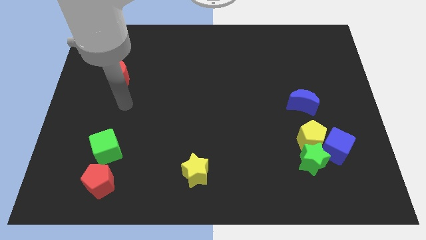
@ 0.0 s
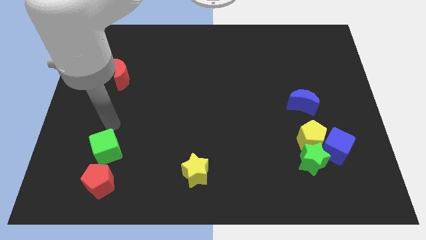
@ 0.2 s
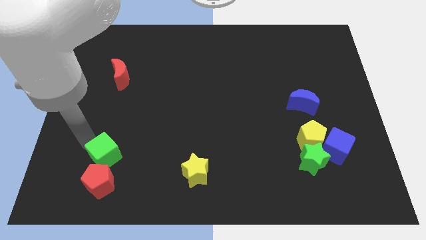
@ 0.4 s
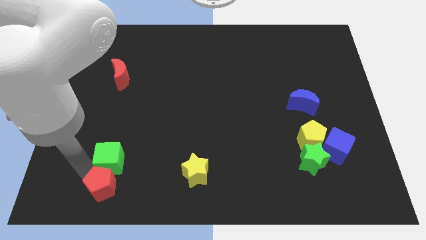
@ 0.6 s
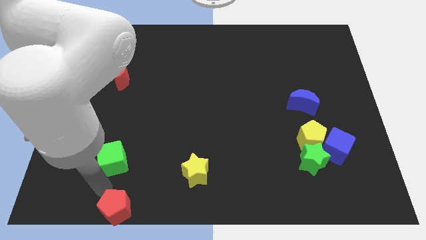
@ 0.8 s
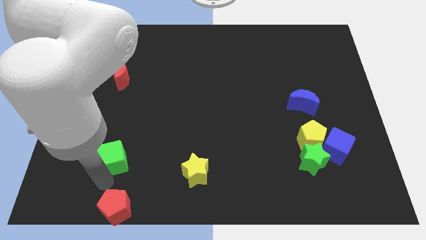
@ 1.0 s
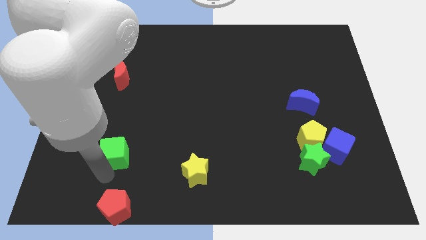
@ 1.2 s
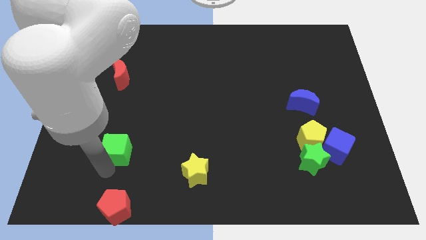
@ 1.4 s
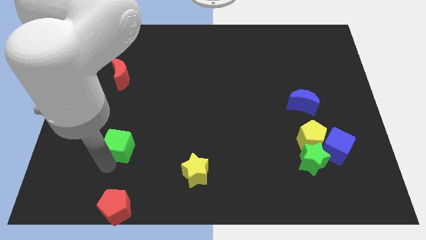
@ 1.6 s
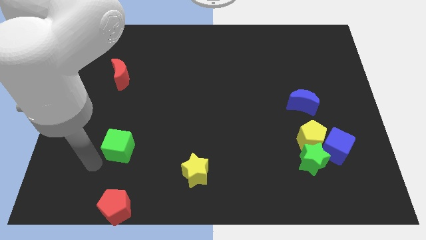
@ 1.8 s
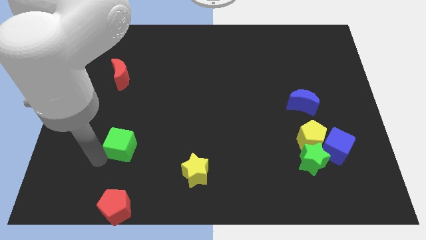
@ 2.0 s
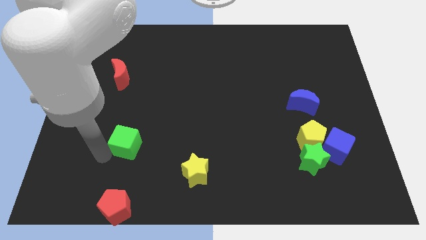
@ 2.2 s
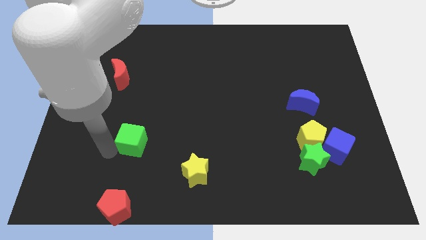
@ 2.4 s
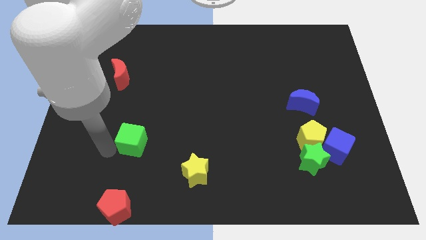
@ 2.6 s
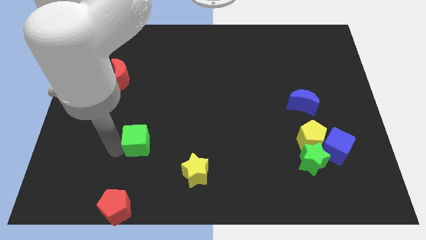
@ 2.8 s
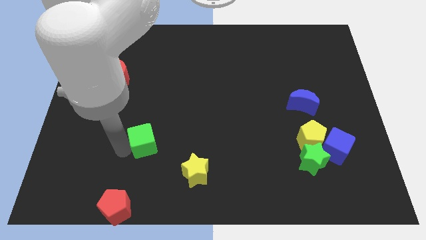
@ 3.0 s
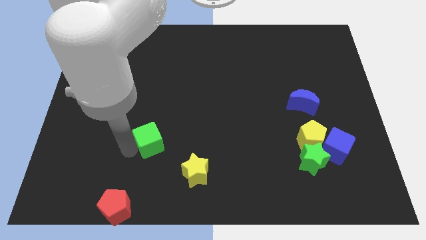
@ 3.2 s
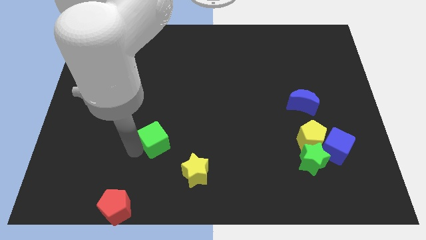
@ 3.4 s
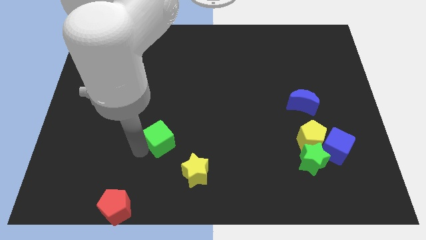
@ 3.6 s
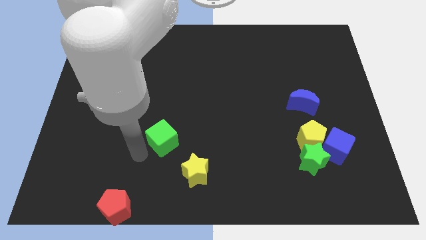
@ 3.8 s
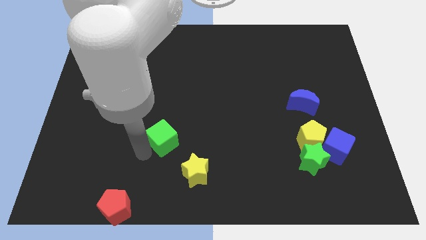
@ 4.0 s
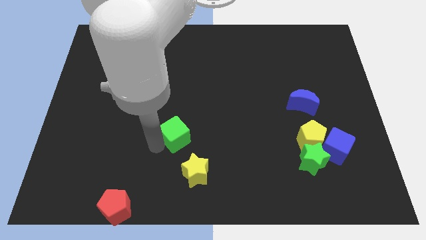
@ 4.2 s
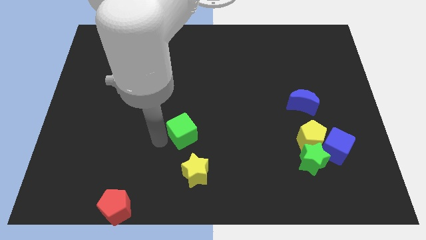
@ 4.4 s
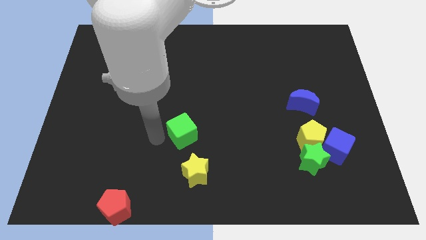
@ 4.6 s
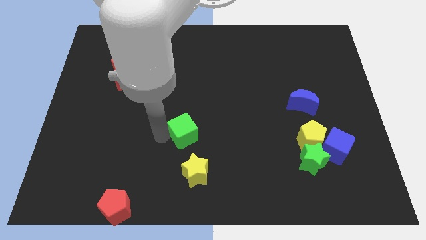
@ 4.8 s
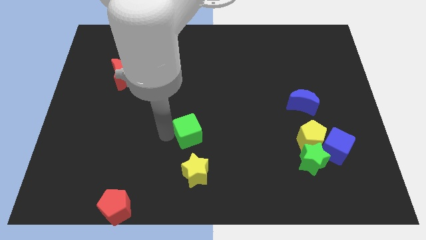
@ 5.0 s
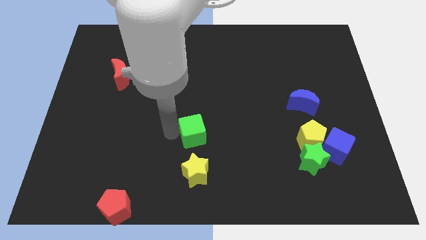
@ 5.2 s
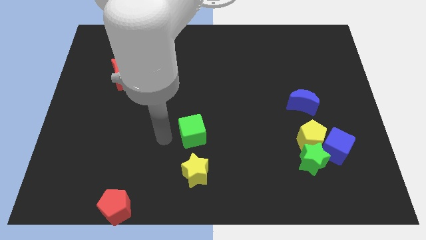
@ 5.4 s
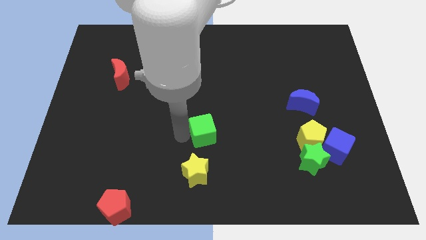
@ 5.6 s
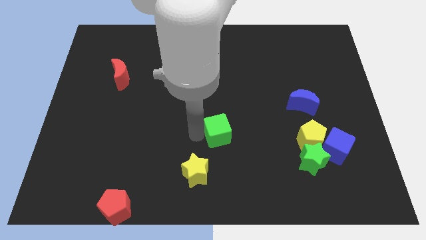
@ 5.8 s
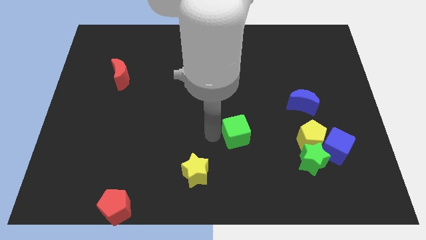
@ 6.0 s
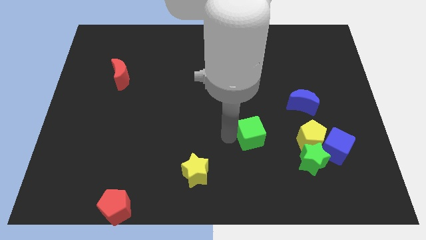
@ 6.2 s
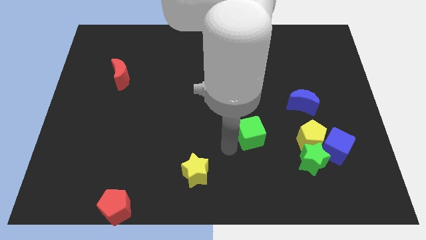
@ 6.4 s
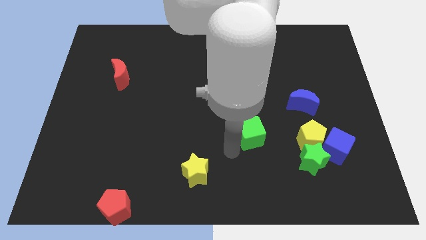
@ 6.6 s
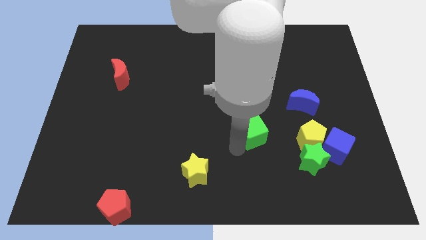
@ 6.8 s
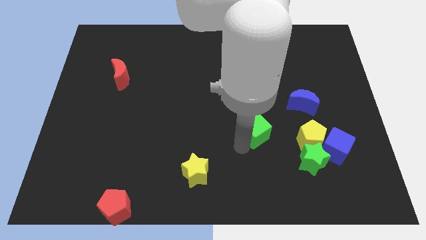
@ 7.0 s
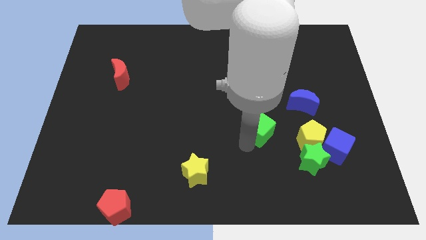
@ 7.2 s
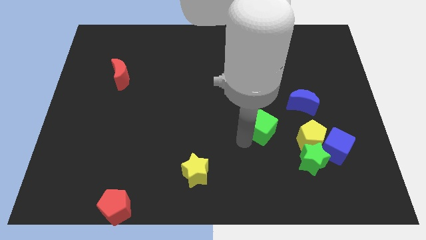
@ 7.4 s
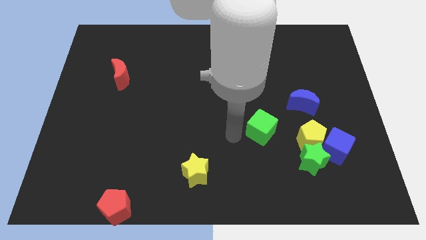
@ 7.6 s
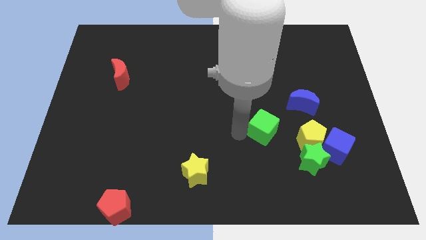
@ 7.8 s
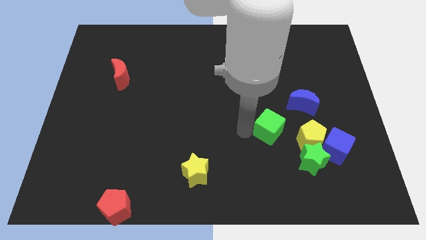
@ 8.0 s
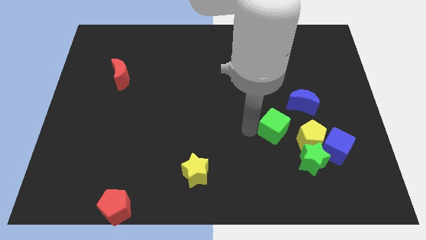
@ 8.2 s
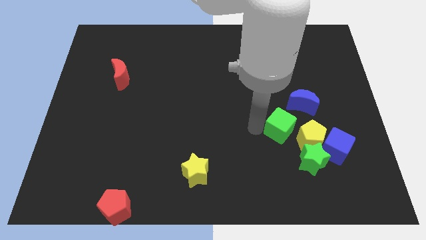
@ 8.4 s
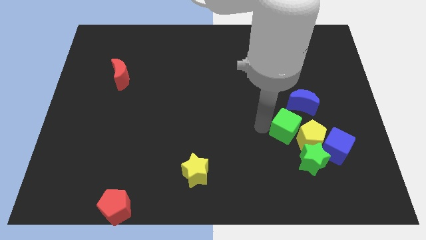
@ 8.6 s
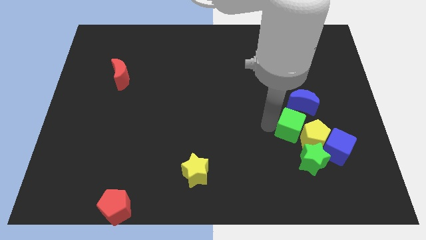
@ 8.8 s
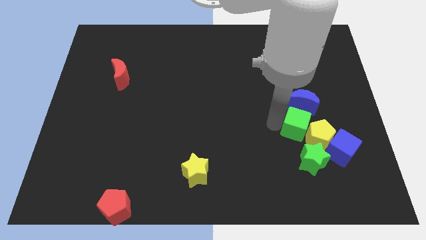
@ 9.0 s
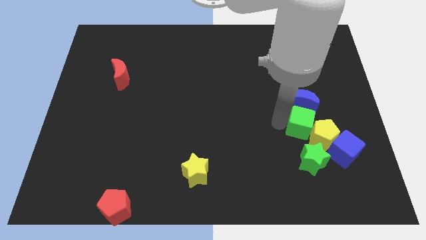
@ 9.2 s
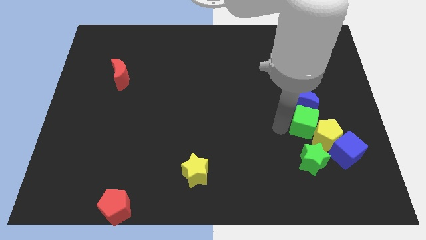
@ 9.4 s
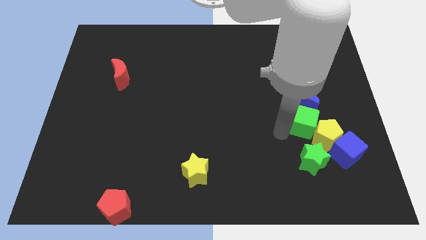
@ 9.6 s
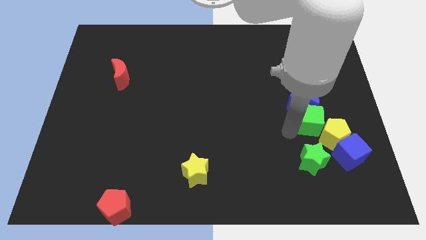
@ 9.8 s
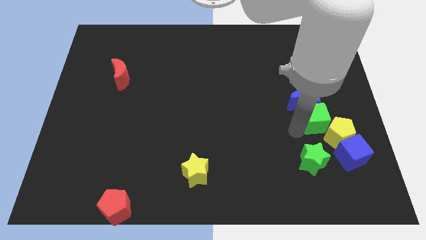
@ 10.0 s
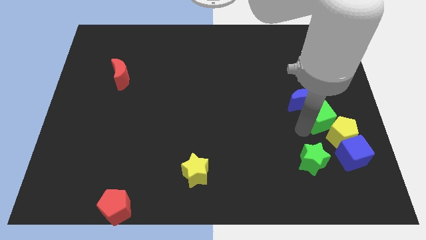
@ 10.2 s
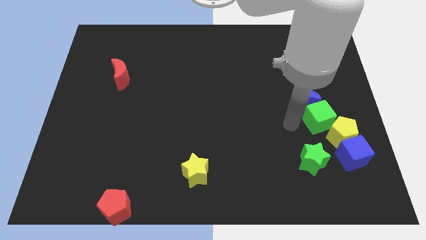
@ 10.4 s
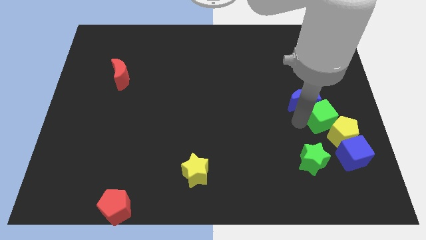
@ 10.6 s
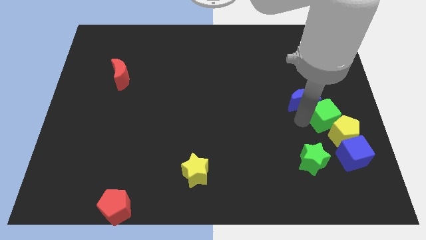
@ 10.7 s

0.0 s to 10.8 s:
put the green cube above the blue cube

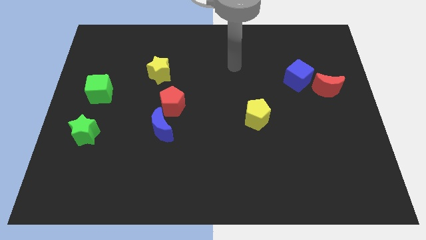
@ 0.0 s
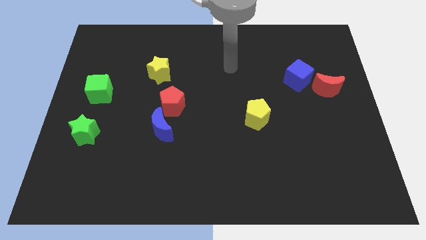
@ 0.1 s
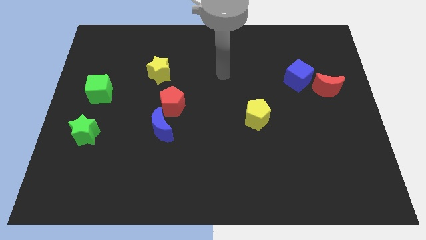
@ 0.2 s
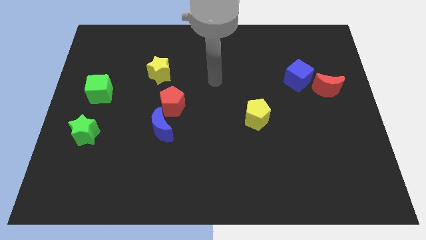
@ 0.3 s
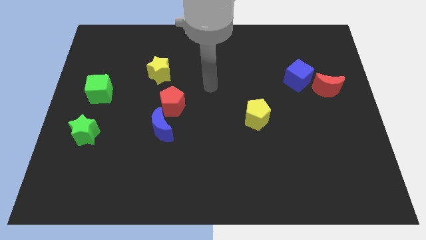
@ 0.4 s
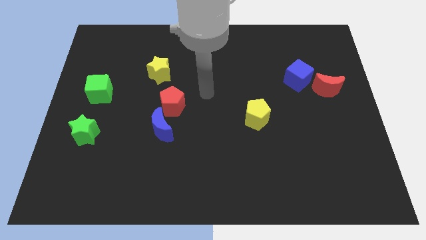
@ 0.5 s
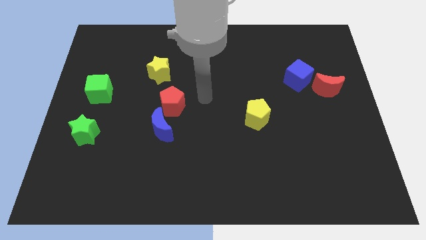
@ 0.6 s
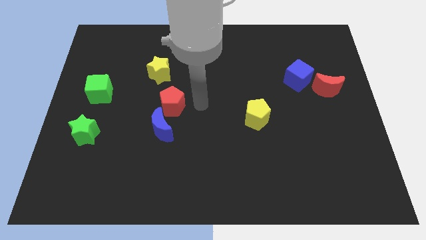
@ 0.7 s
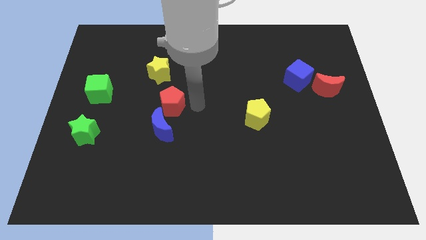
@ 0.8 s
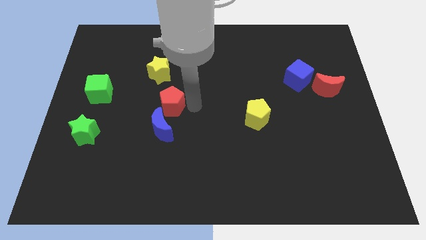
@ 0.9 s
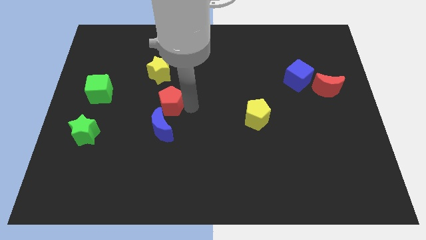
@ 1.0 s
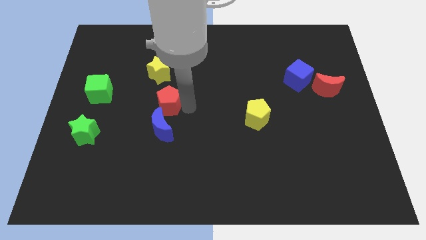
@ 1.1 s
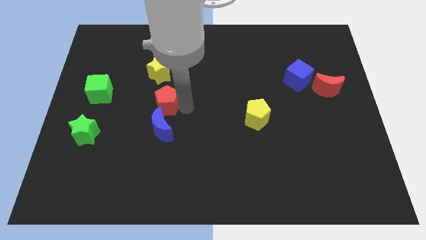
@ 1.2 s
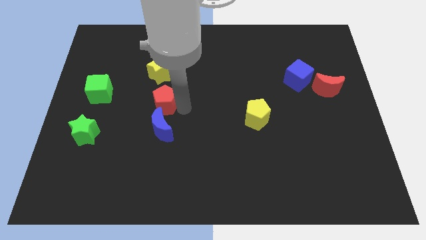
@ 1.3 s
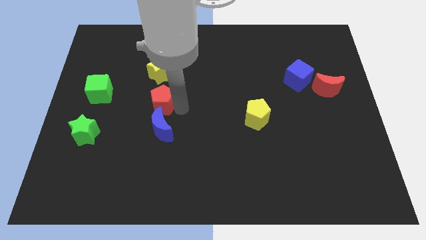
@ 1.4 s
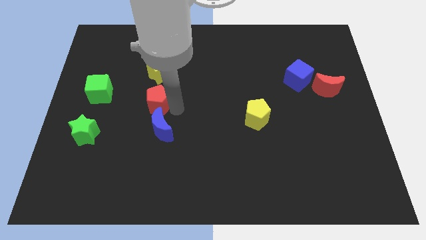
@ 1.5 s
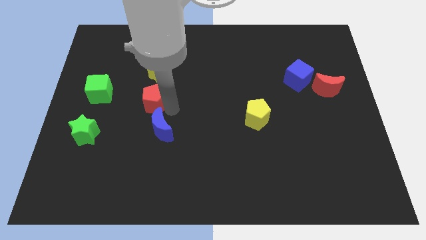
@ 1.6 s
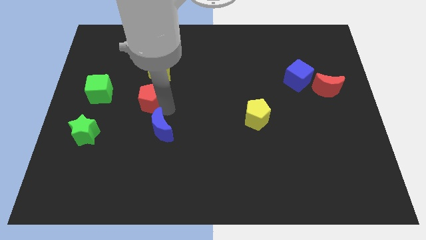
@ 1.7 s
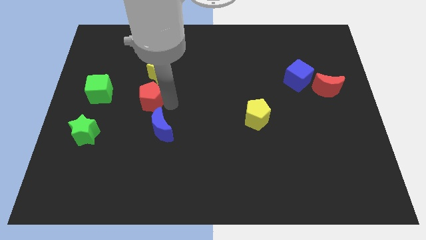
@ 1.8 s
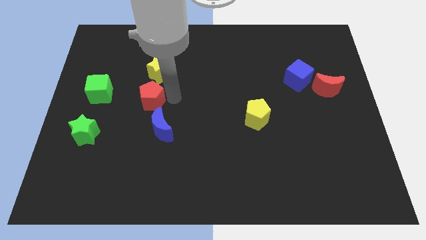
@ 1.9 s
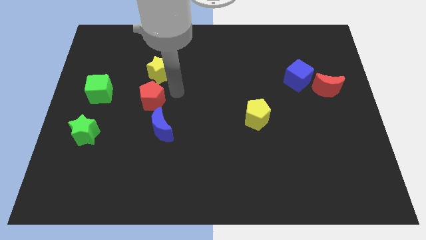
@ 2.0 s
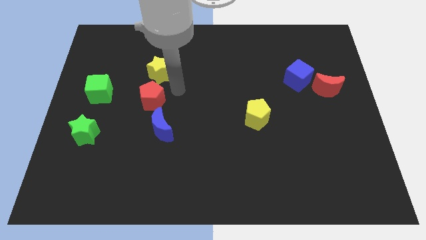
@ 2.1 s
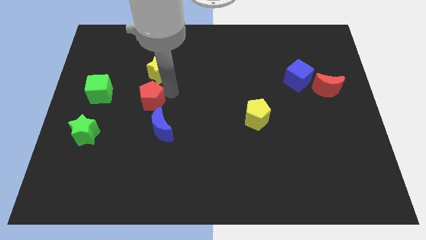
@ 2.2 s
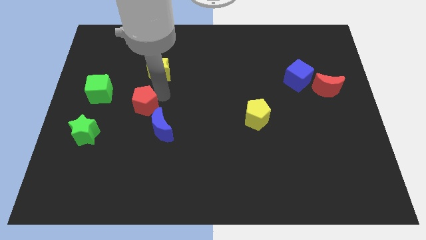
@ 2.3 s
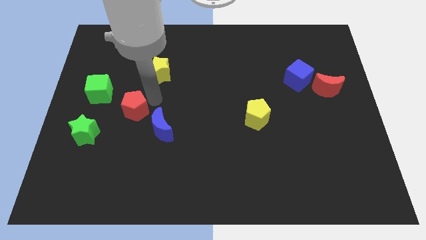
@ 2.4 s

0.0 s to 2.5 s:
move the red pentagon to the top right of the green star
